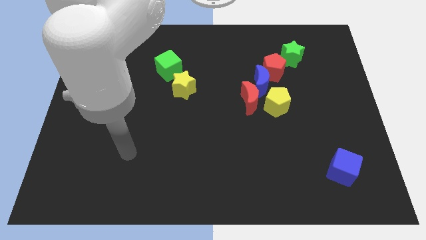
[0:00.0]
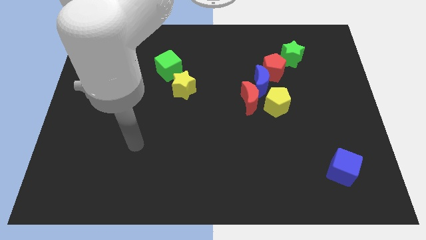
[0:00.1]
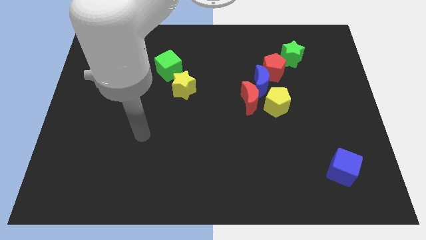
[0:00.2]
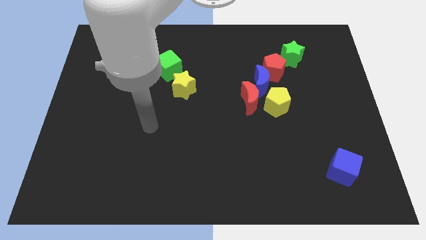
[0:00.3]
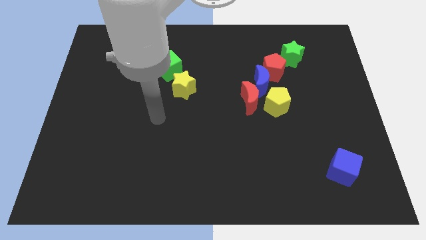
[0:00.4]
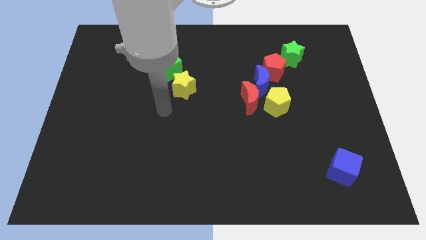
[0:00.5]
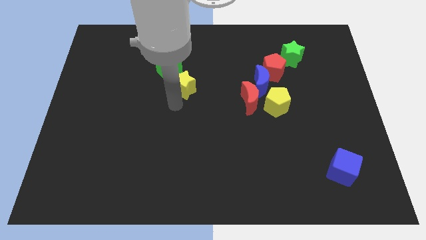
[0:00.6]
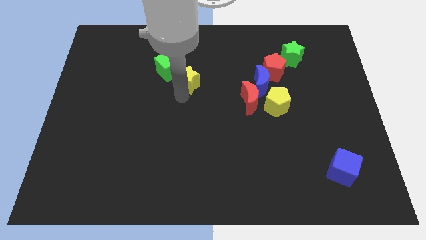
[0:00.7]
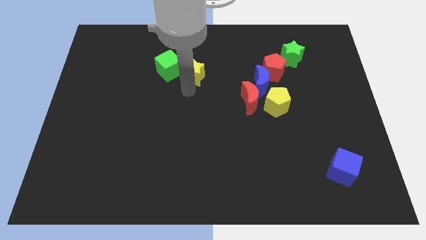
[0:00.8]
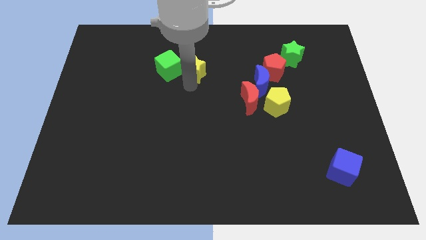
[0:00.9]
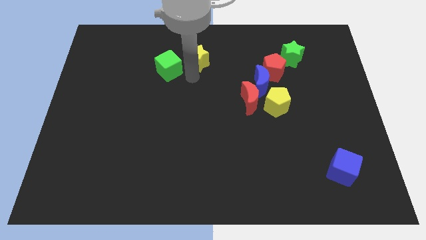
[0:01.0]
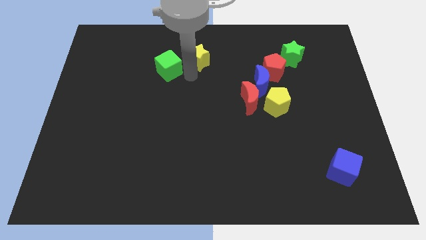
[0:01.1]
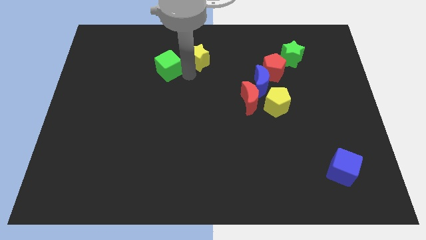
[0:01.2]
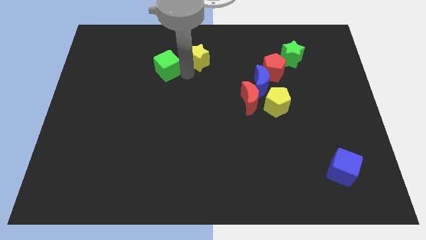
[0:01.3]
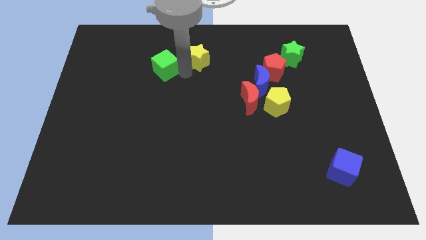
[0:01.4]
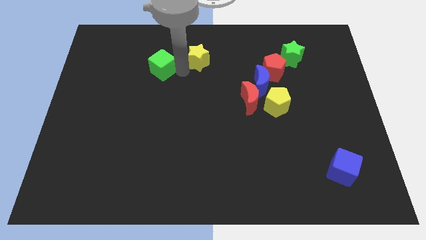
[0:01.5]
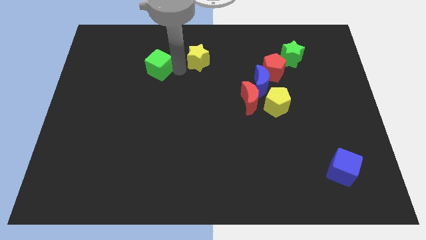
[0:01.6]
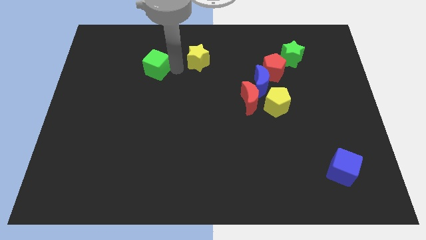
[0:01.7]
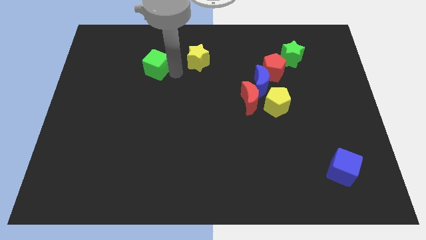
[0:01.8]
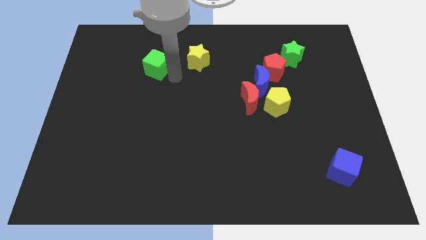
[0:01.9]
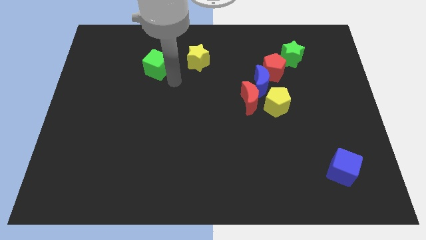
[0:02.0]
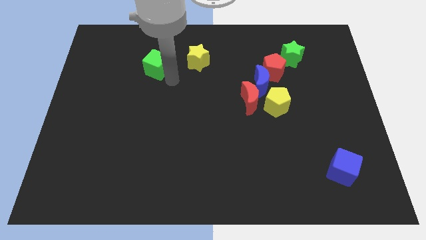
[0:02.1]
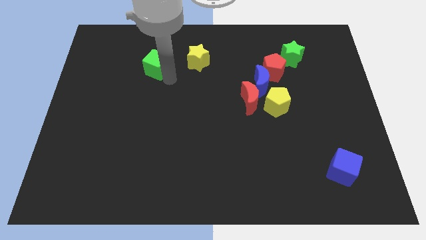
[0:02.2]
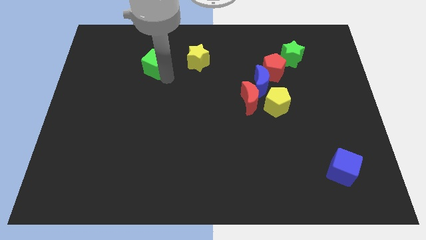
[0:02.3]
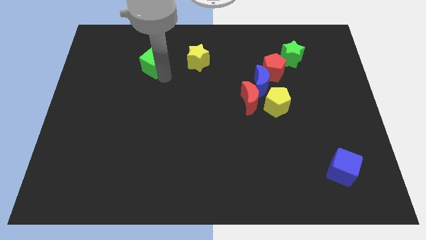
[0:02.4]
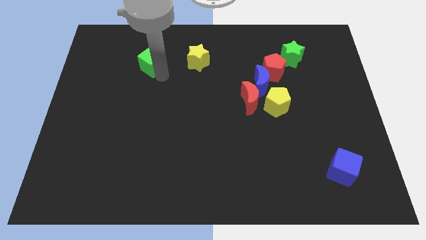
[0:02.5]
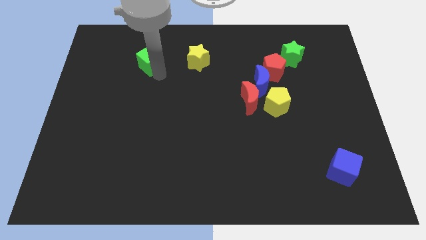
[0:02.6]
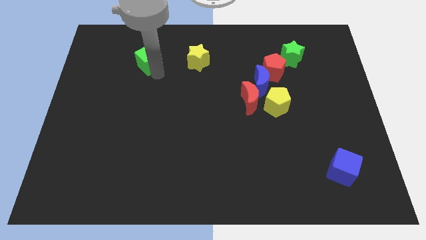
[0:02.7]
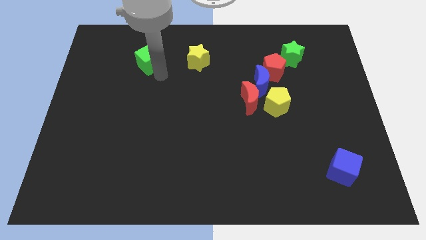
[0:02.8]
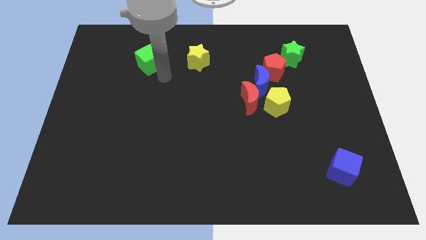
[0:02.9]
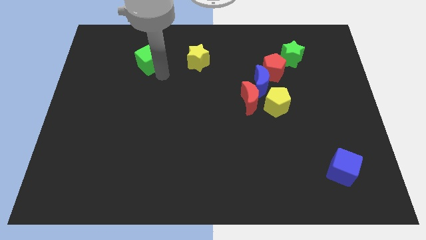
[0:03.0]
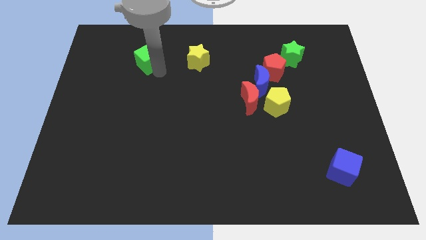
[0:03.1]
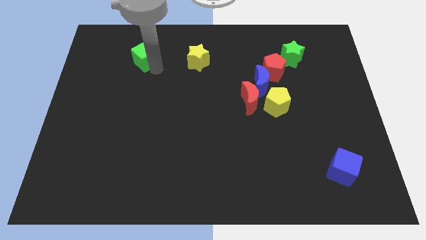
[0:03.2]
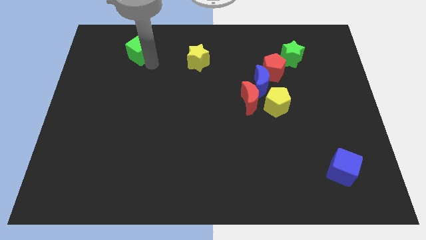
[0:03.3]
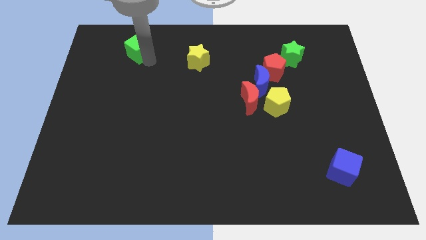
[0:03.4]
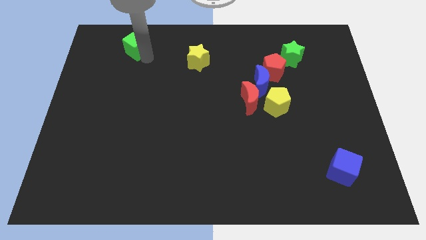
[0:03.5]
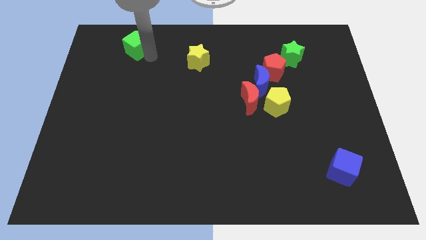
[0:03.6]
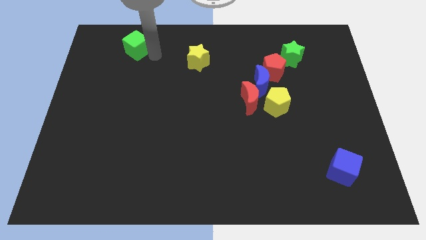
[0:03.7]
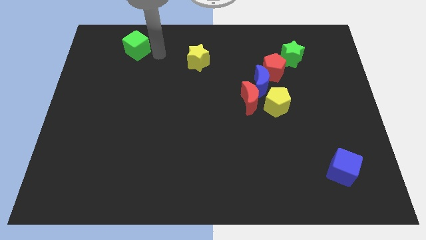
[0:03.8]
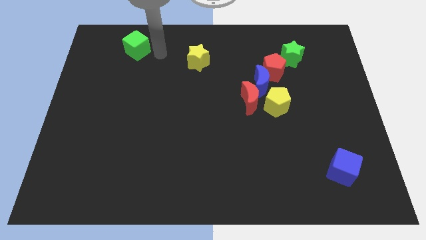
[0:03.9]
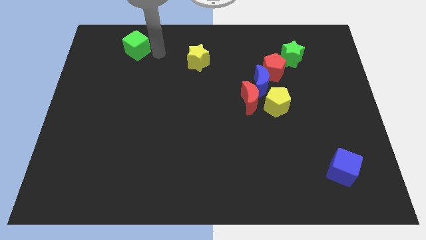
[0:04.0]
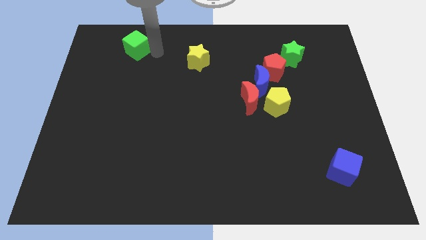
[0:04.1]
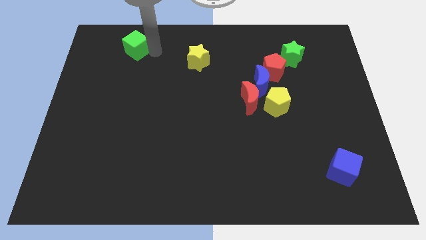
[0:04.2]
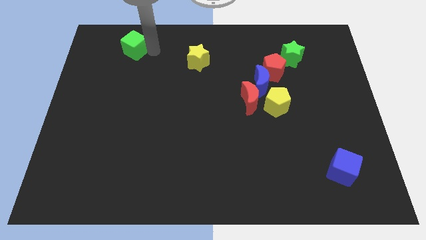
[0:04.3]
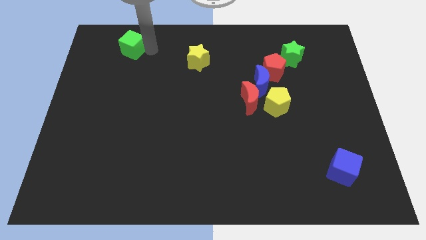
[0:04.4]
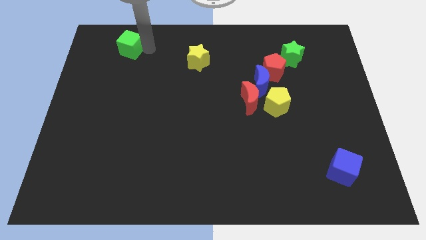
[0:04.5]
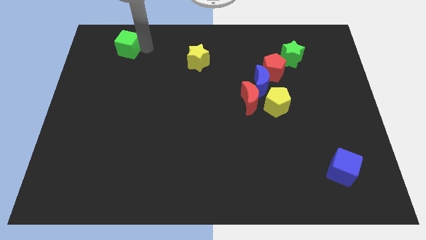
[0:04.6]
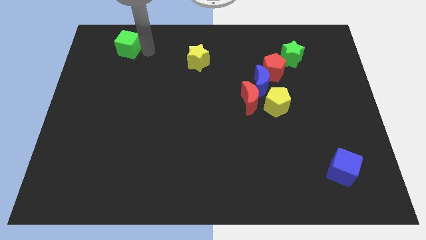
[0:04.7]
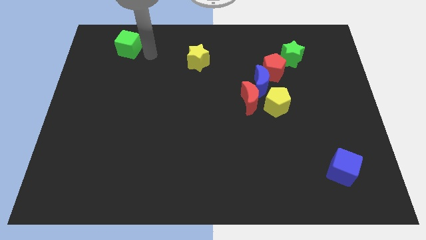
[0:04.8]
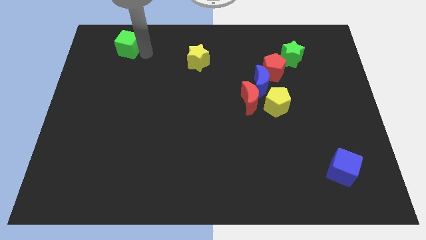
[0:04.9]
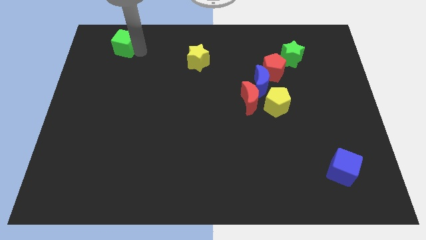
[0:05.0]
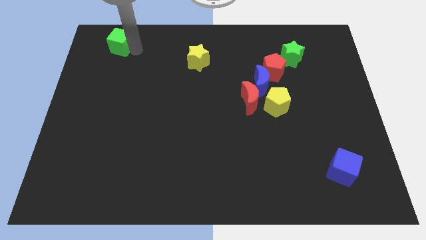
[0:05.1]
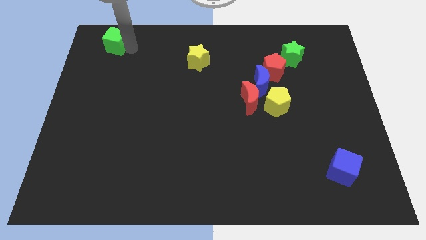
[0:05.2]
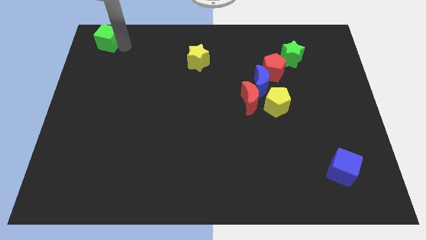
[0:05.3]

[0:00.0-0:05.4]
push the green cube to the upper left corner
